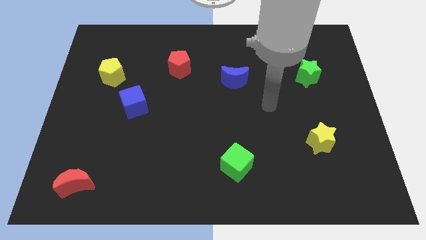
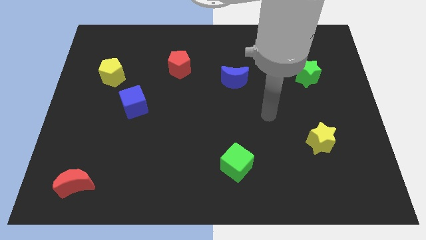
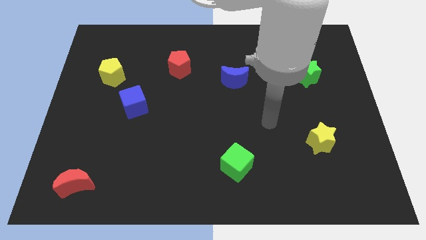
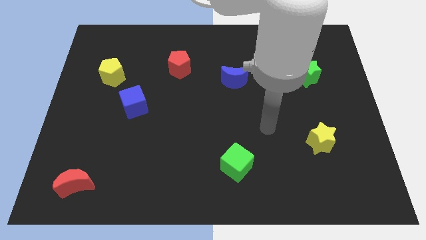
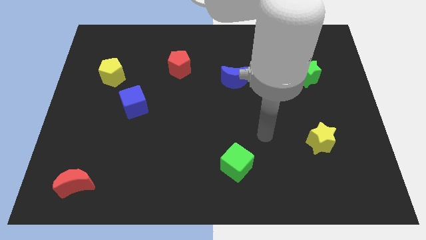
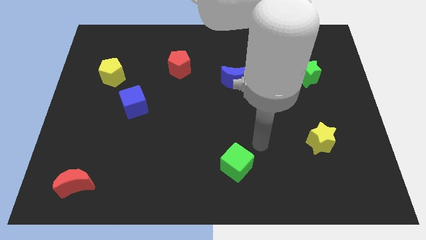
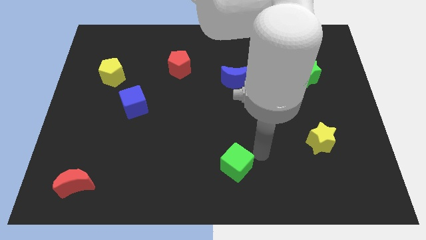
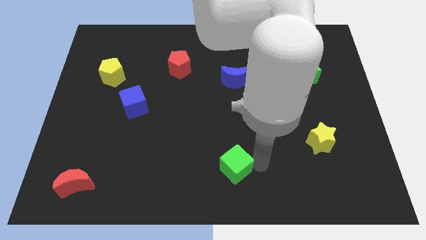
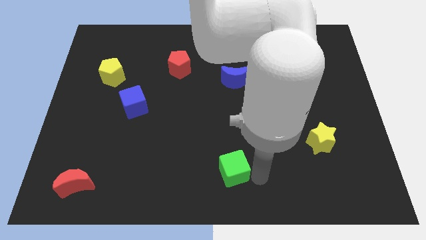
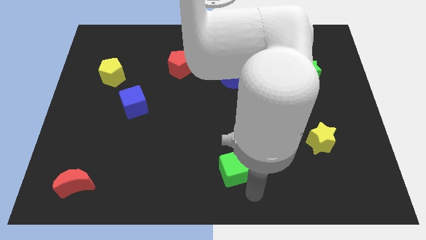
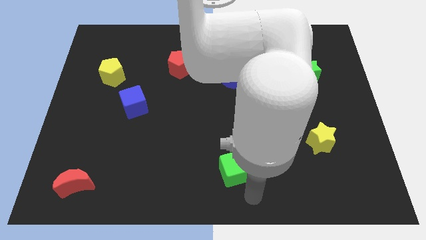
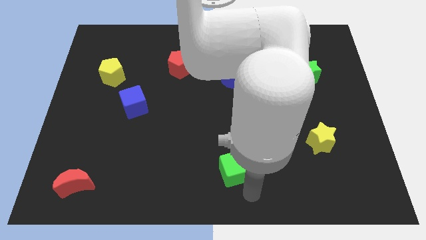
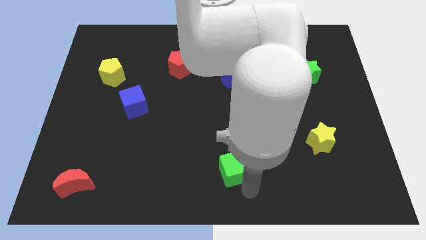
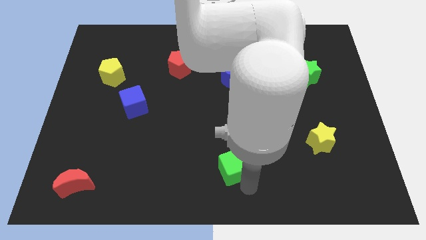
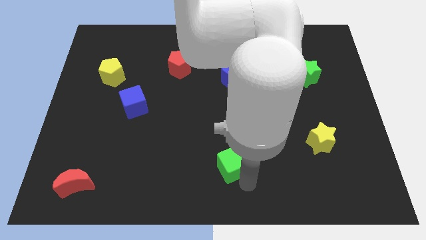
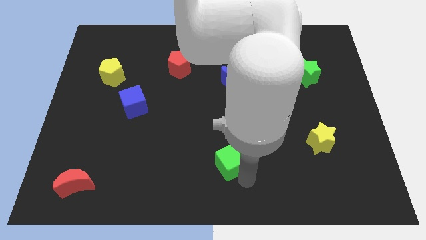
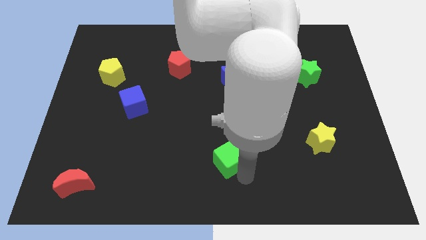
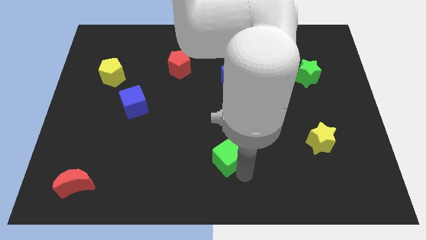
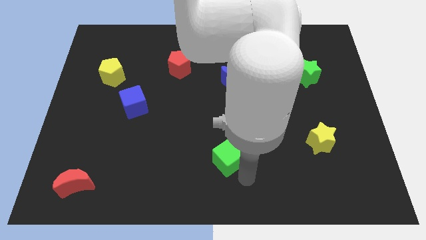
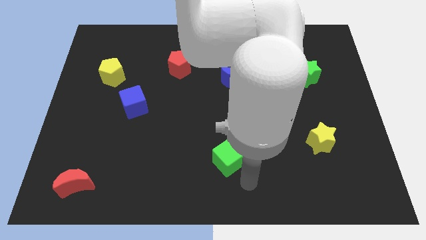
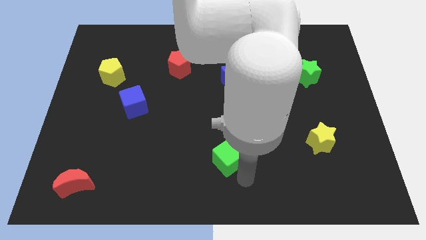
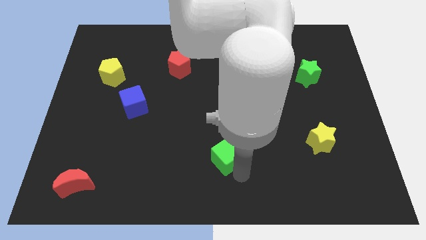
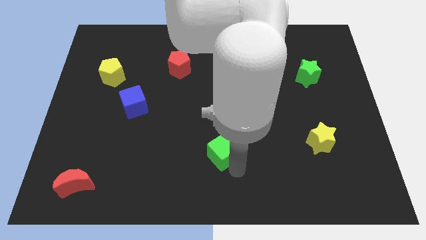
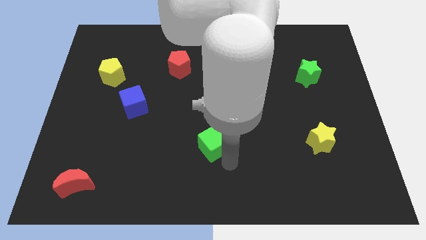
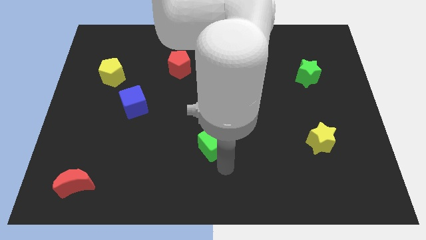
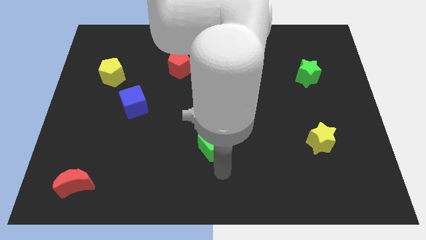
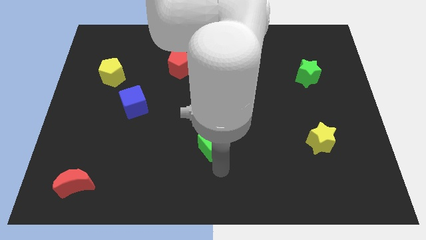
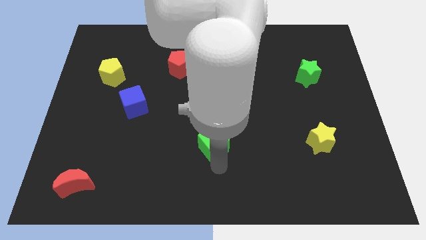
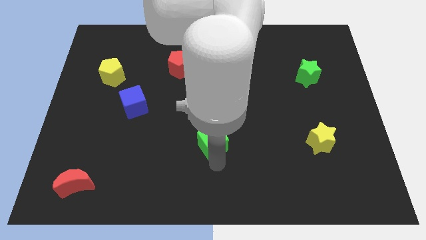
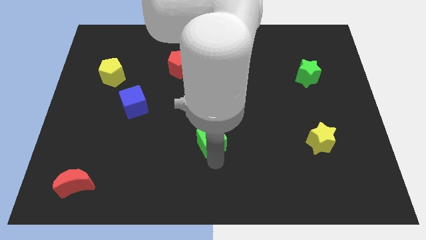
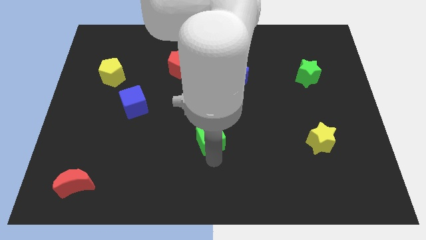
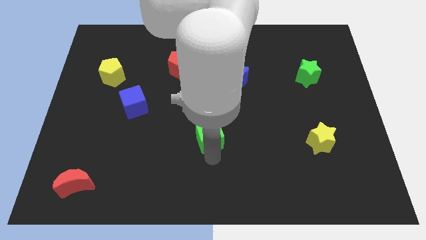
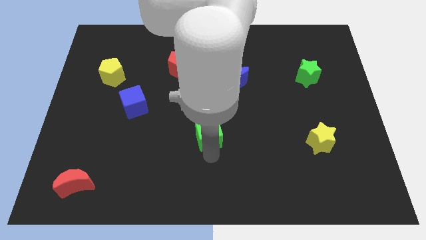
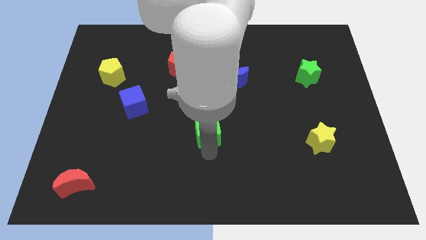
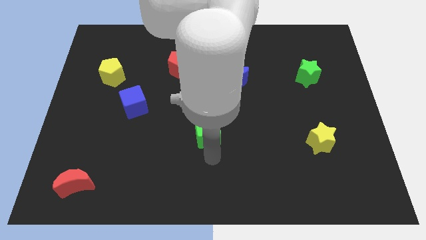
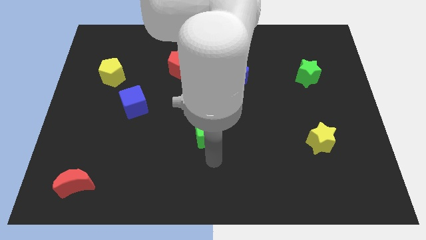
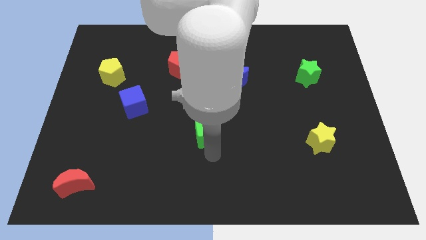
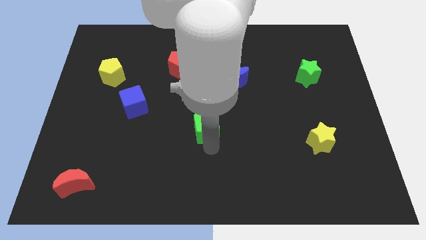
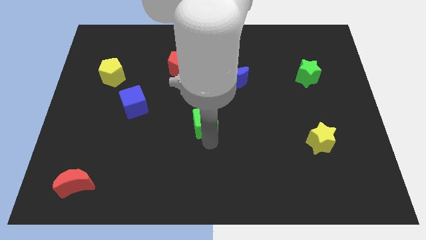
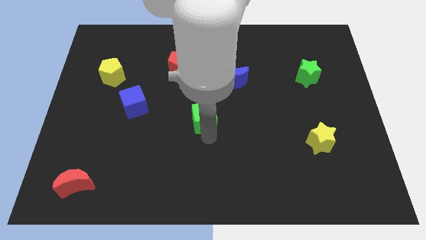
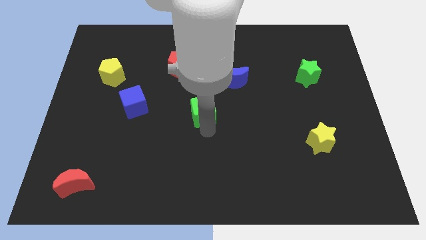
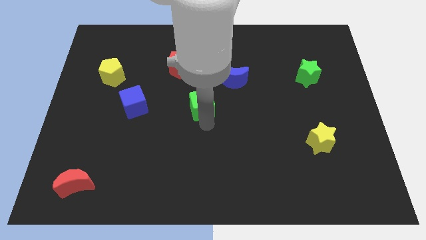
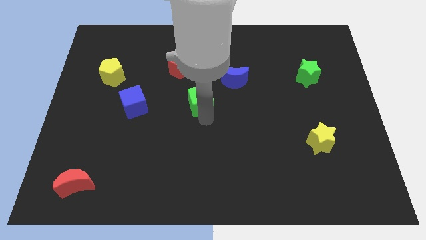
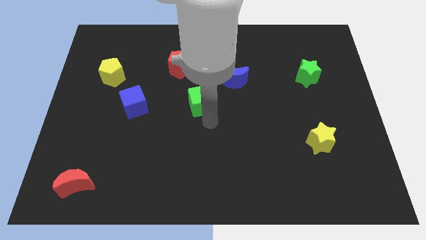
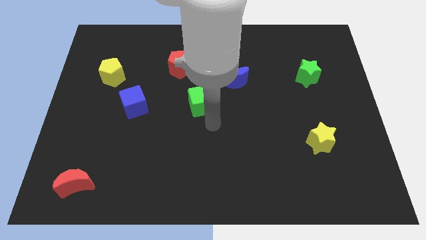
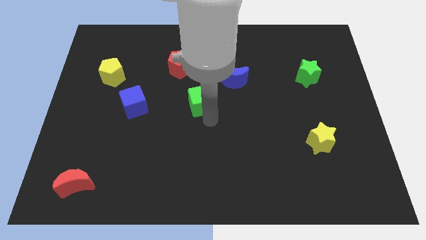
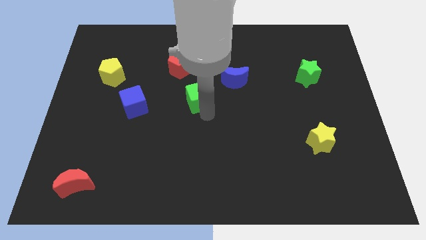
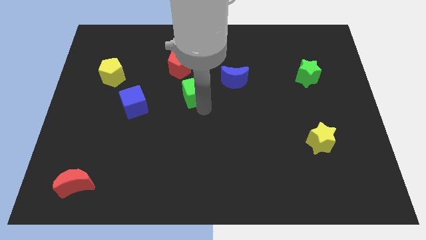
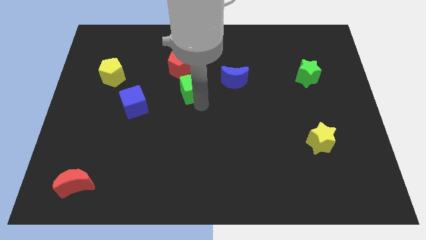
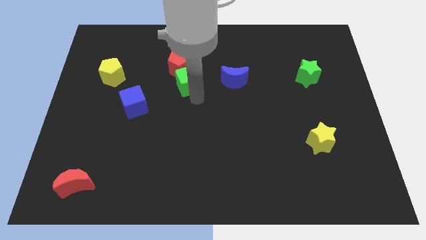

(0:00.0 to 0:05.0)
put the green cube towards the red pentagon

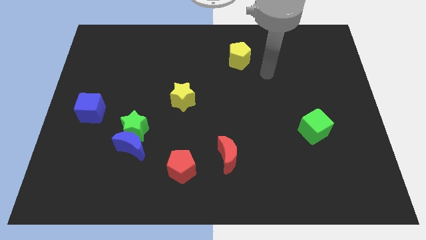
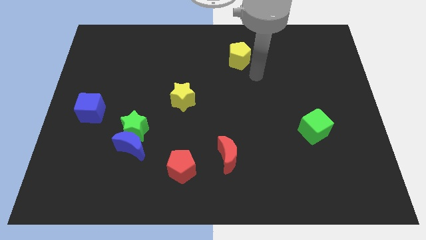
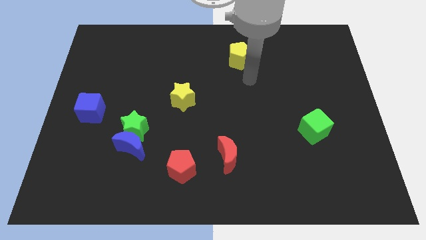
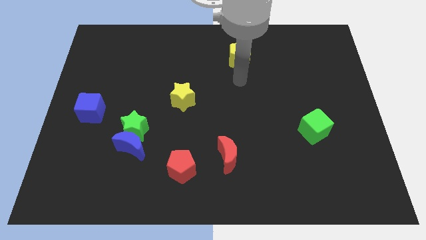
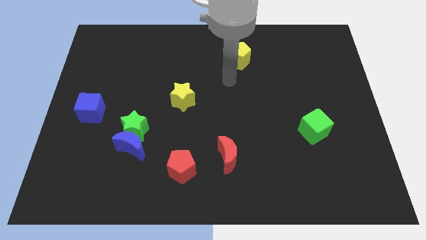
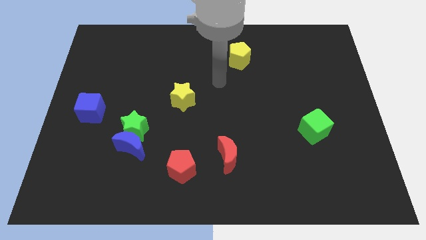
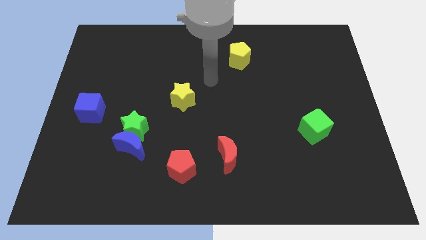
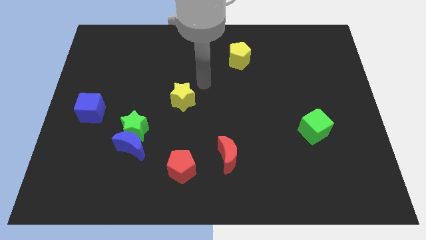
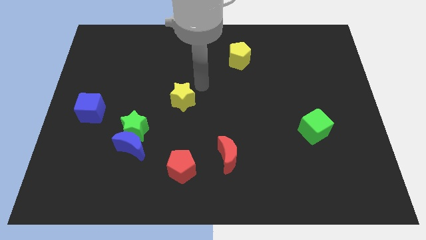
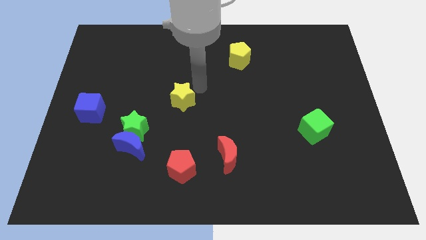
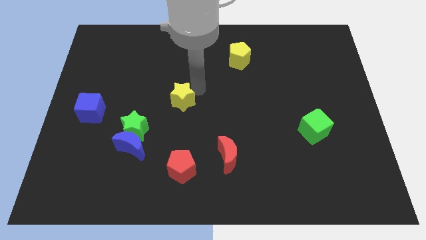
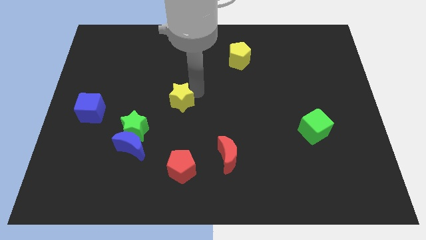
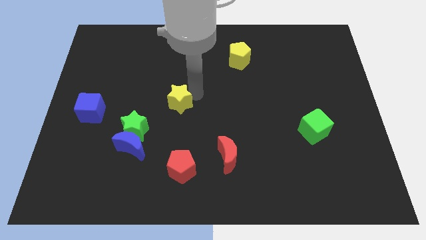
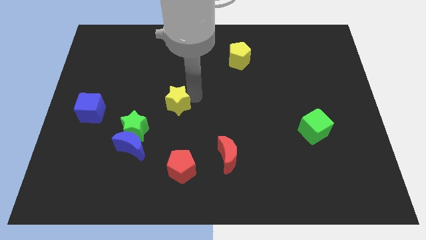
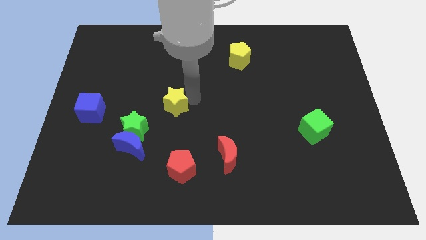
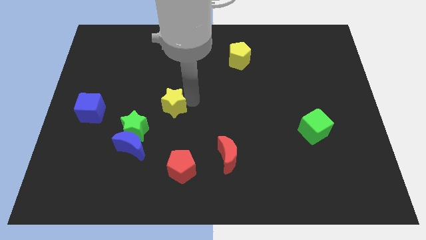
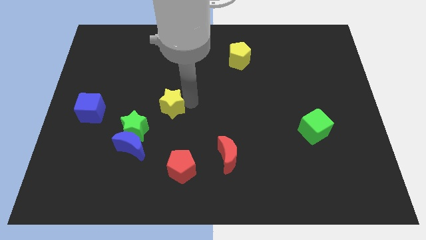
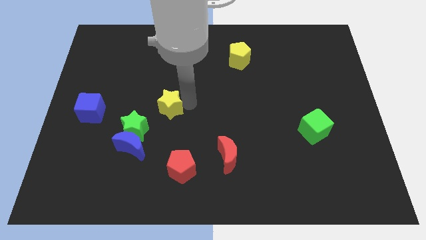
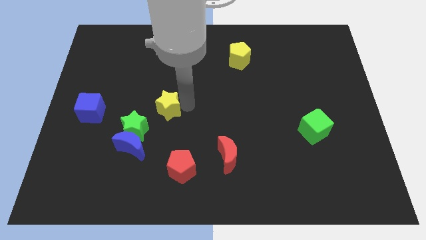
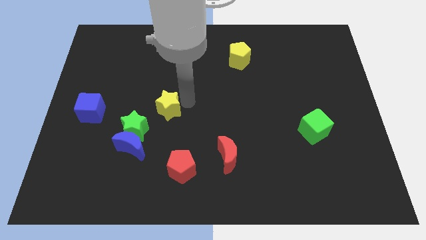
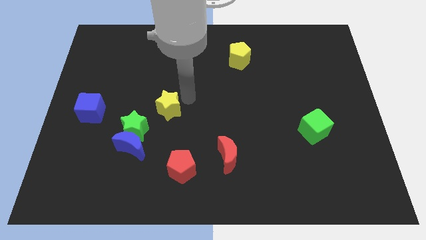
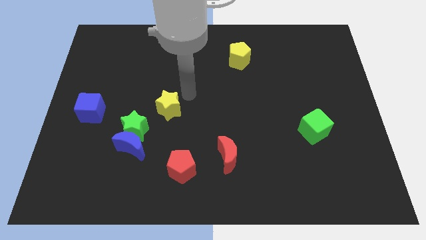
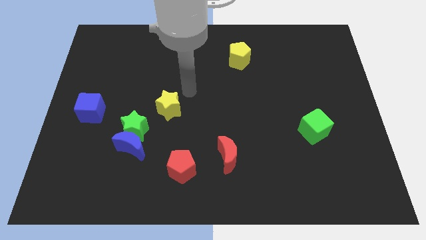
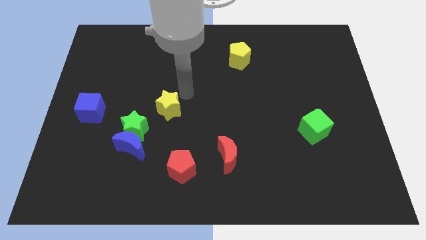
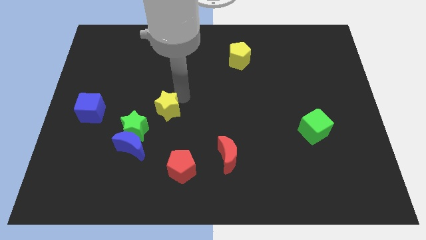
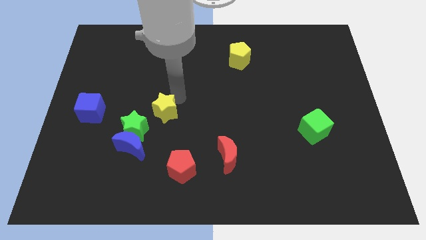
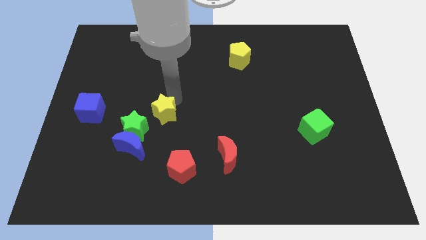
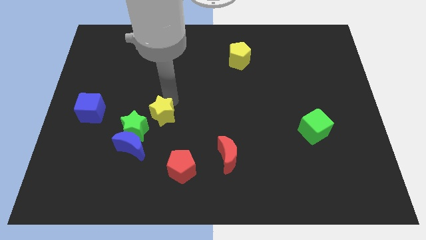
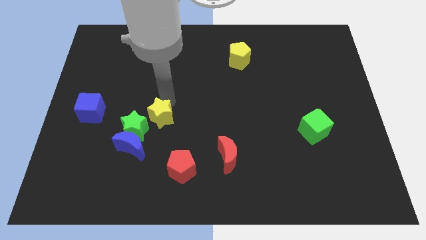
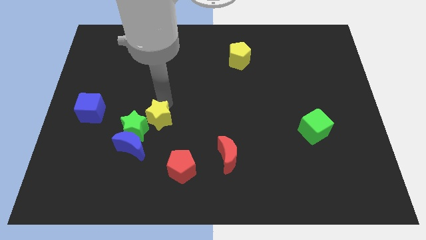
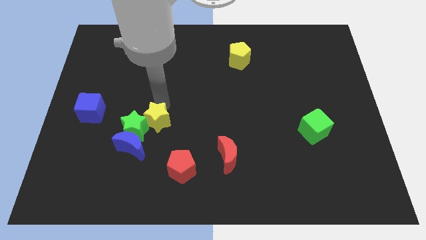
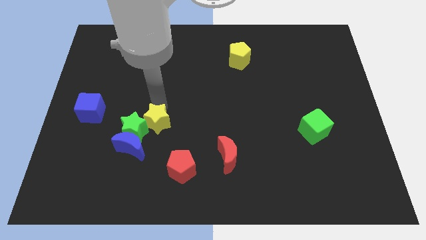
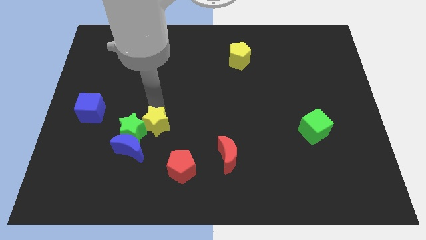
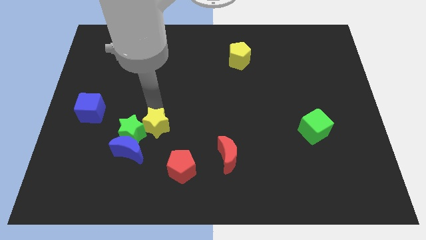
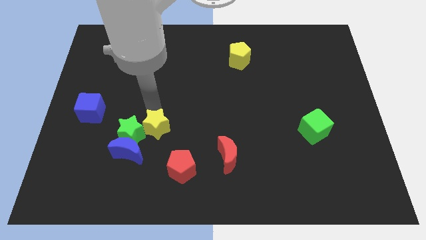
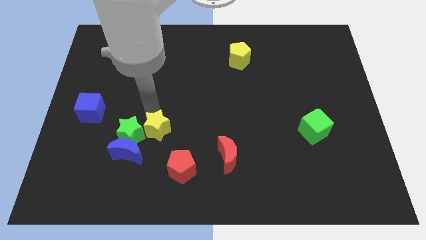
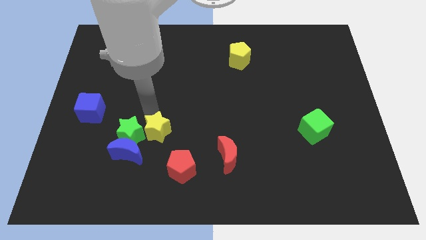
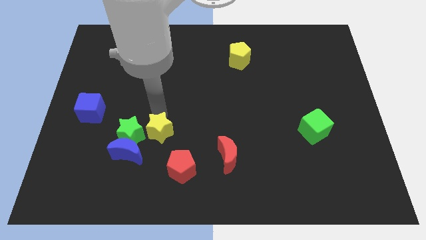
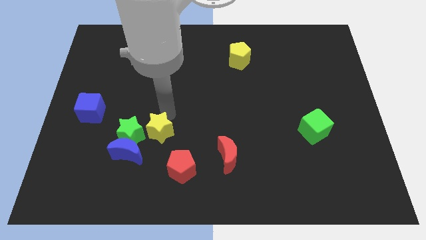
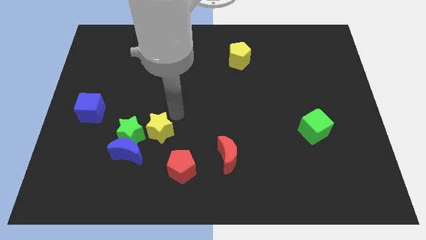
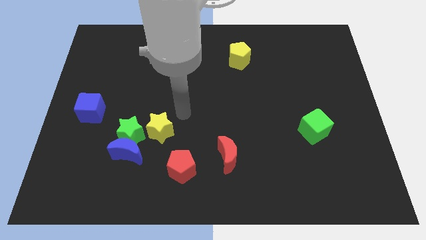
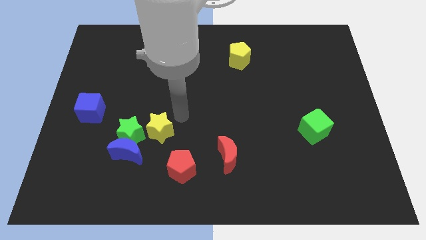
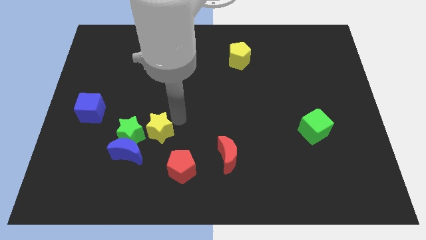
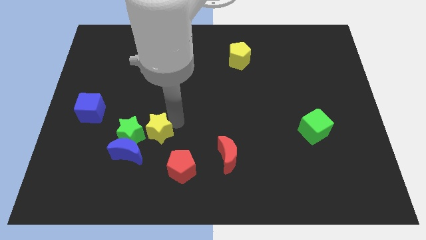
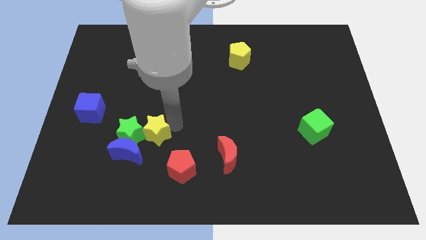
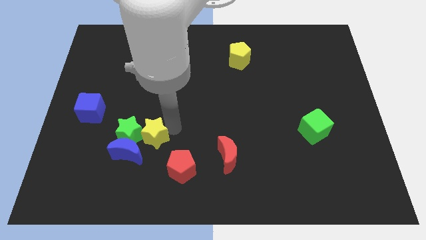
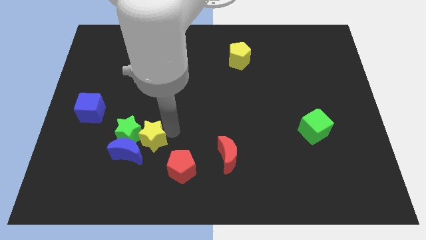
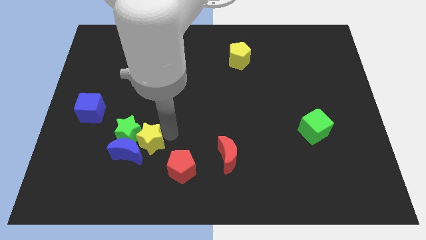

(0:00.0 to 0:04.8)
put the yellow star next to the blue moon
